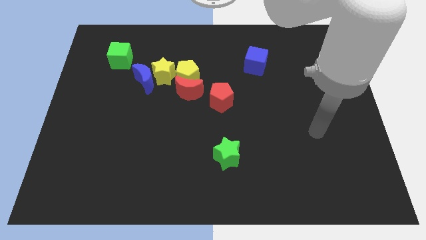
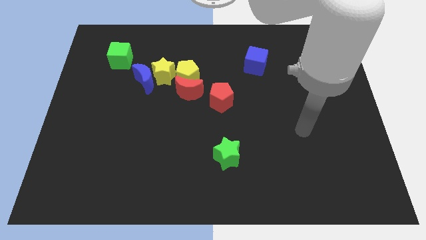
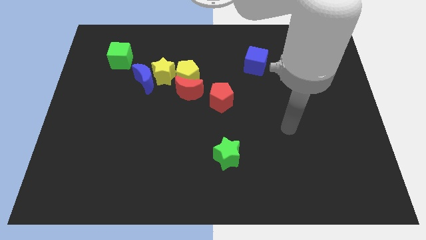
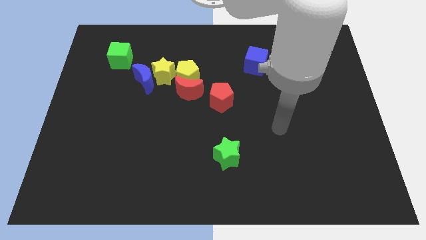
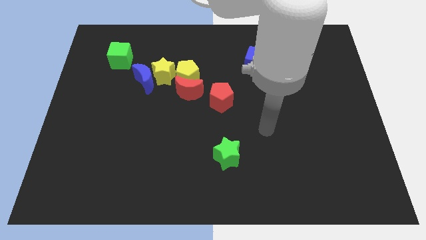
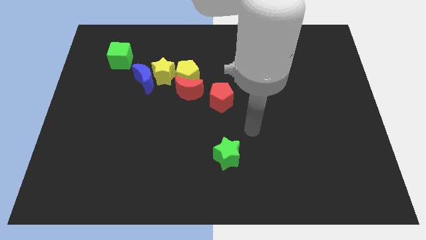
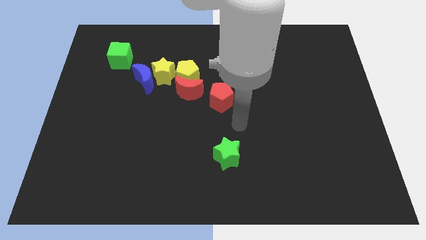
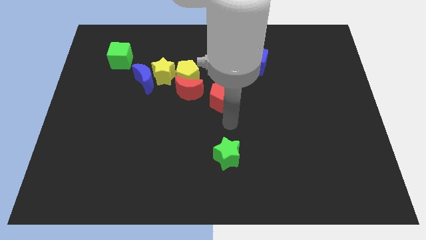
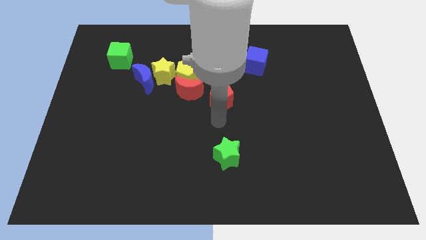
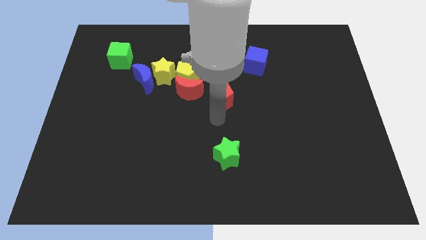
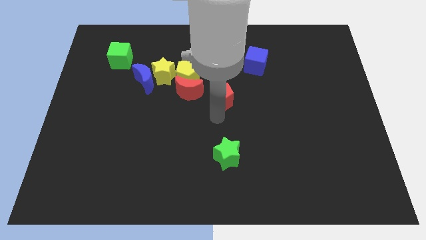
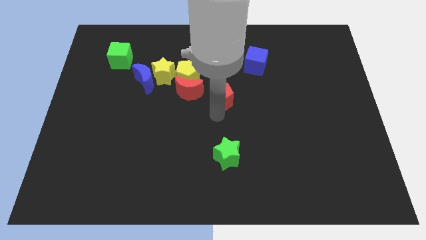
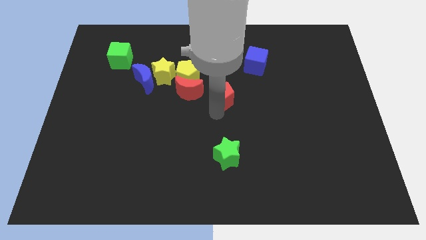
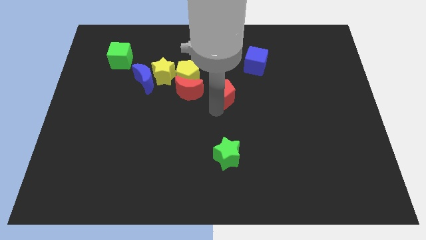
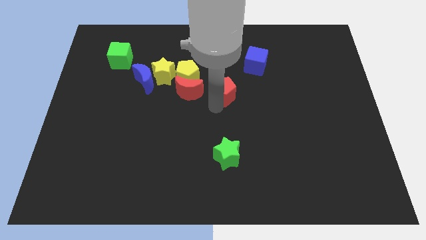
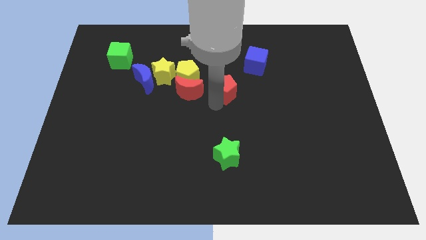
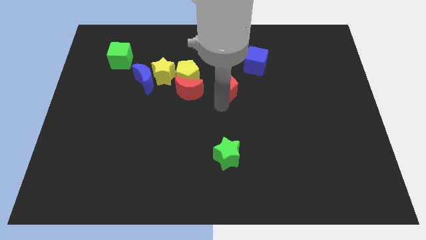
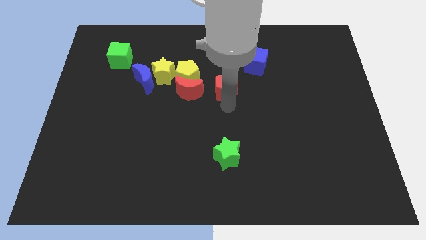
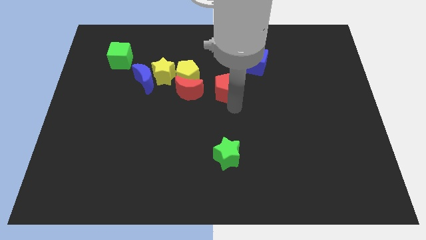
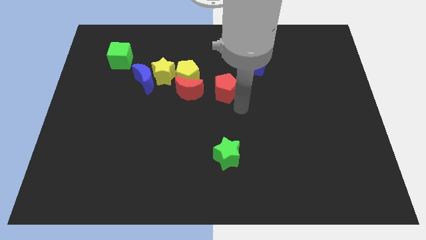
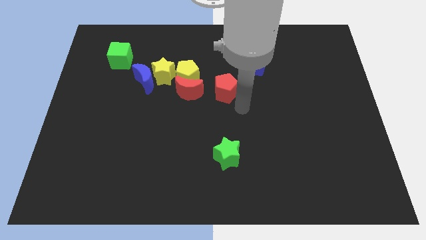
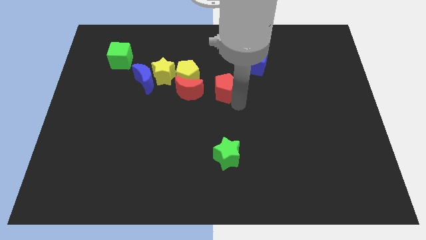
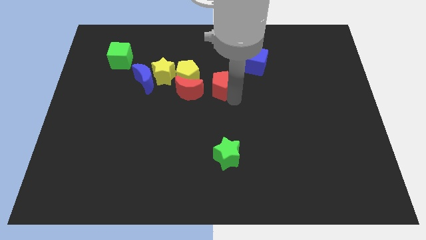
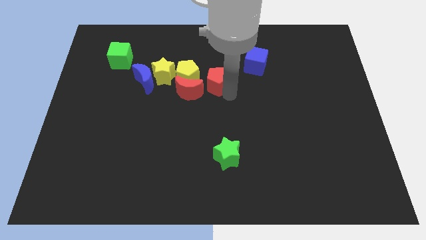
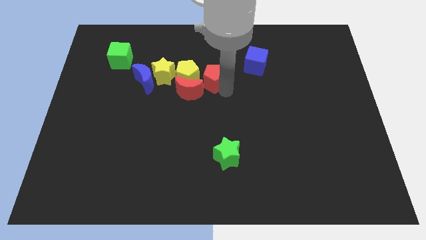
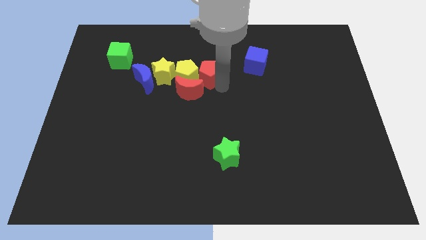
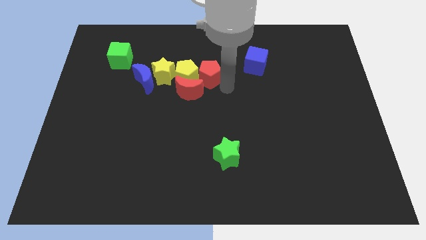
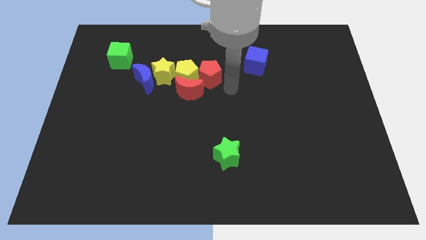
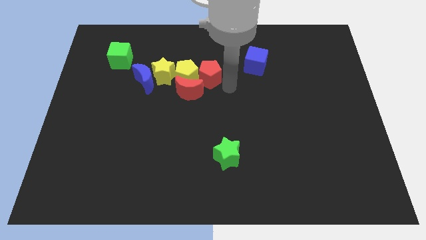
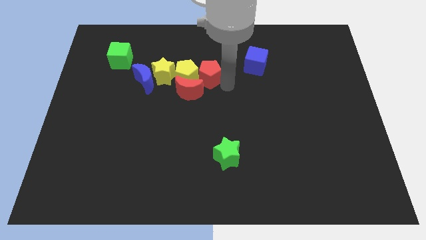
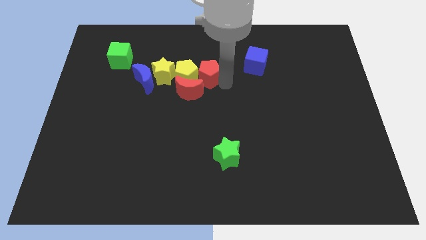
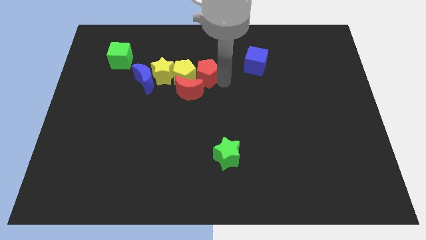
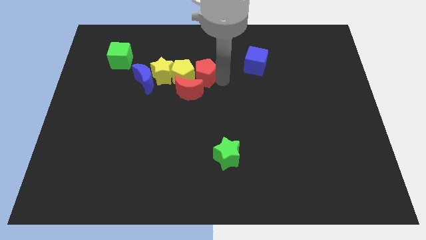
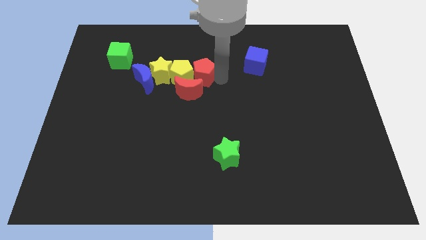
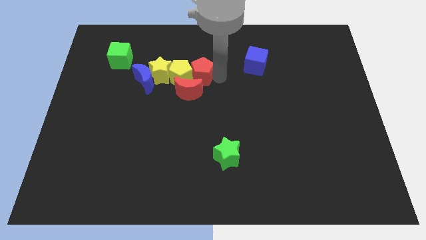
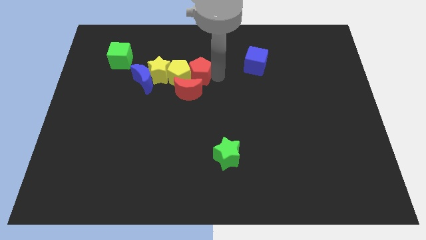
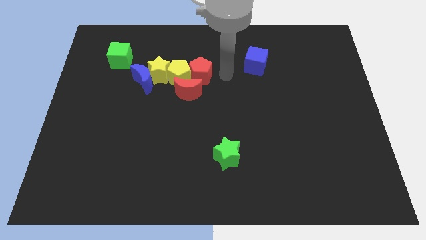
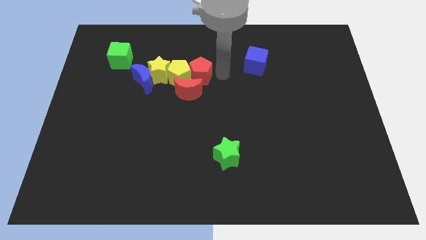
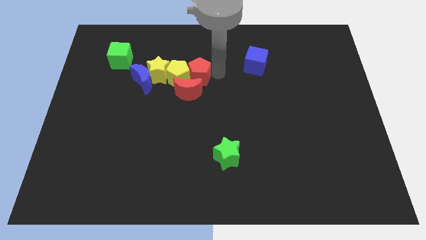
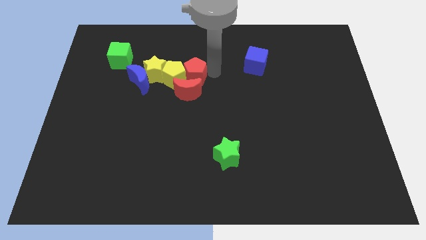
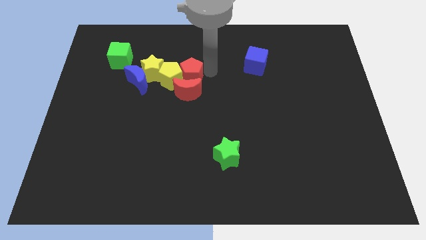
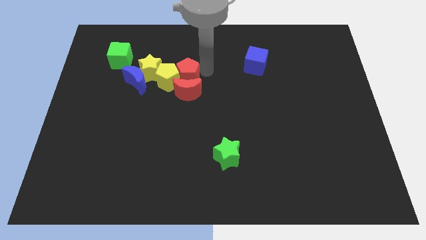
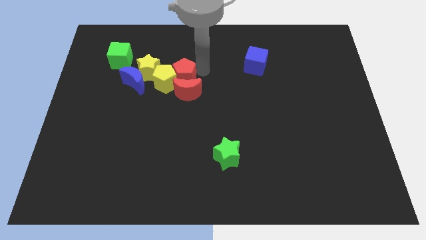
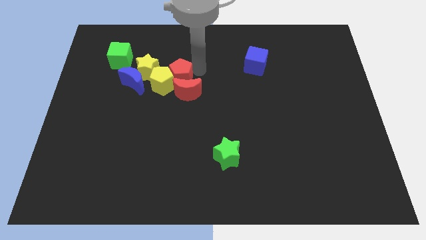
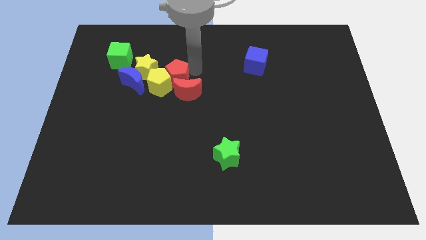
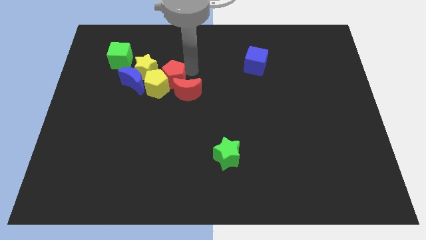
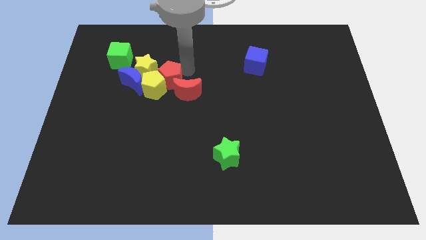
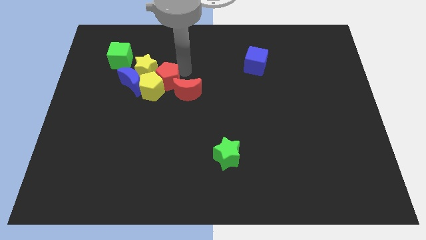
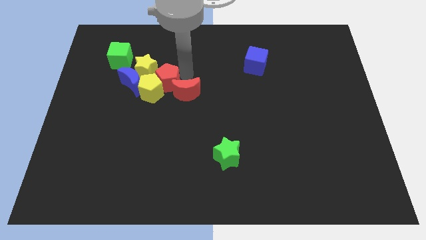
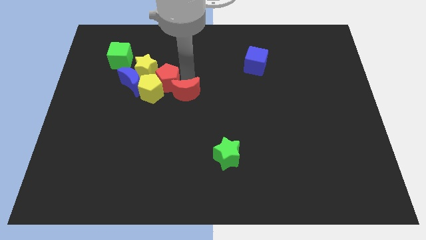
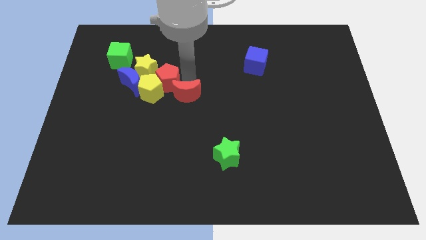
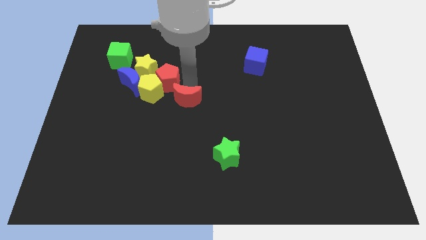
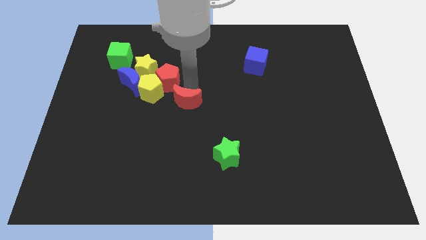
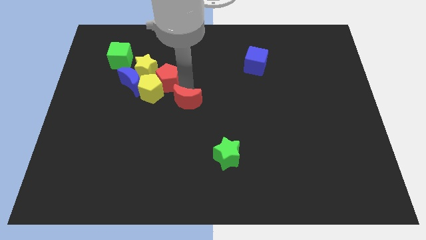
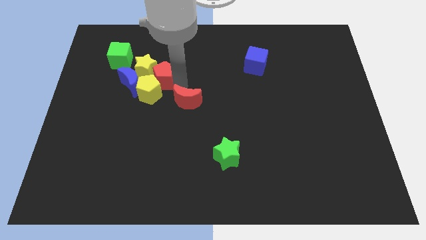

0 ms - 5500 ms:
push the red pentagon to the yellow star

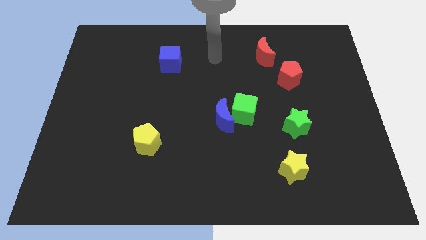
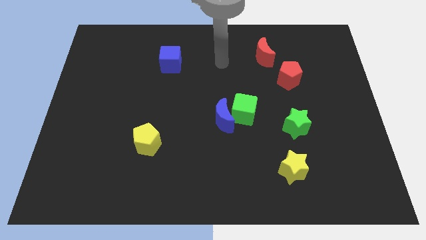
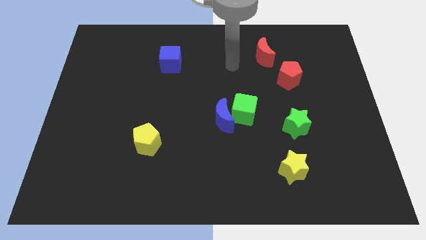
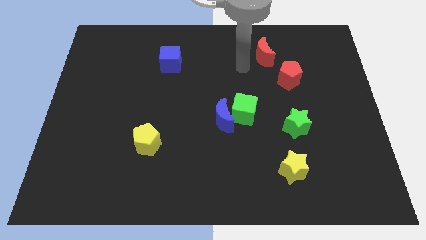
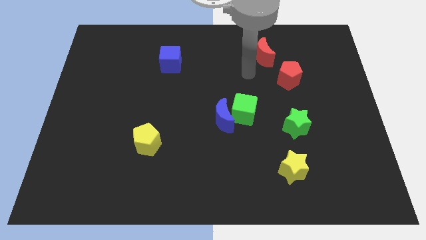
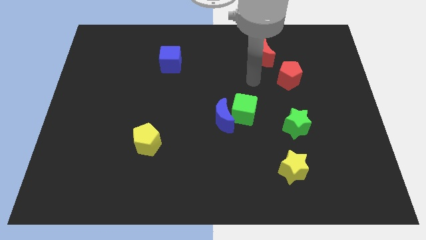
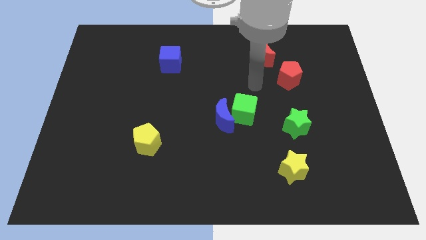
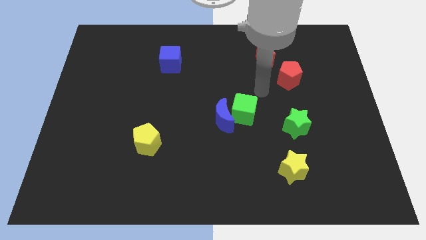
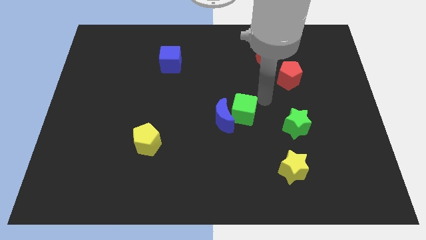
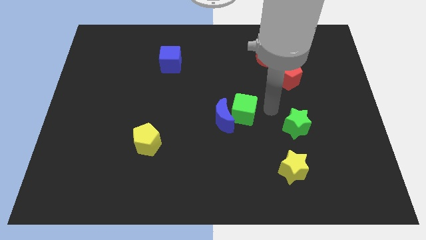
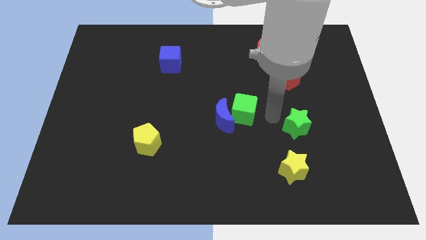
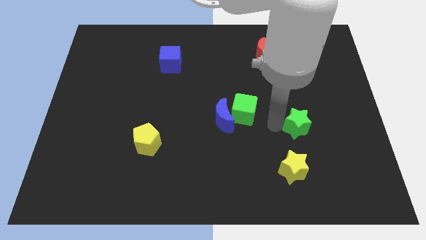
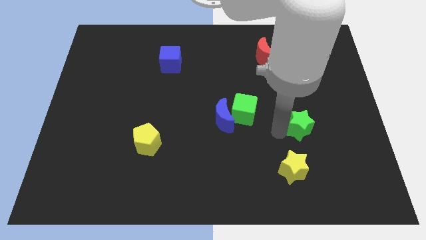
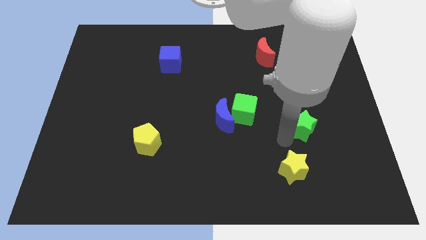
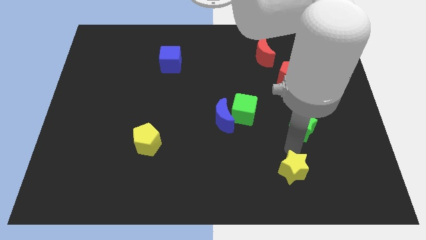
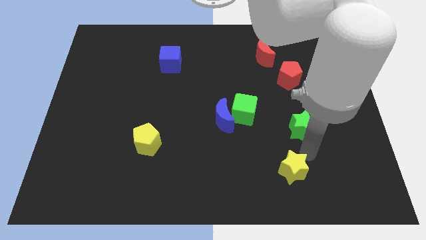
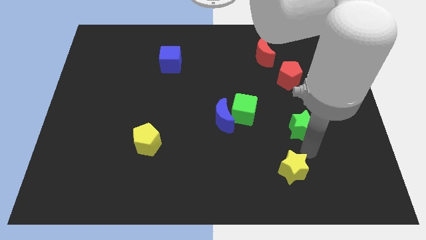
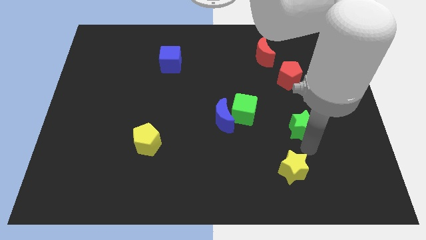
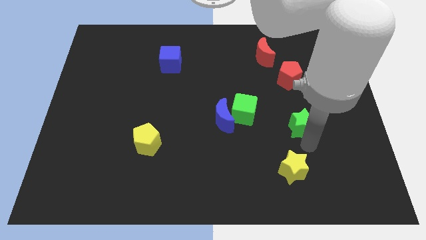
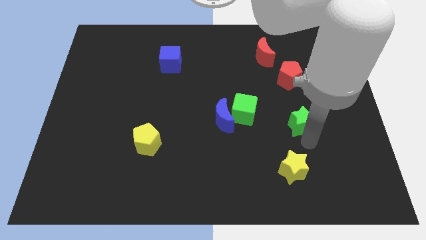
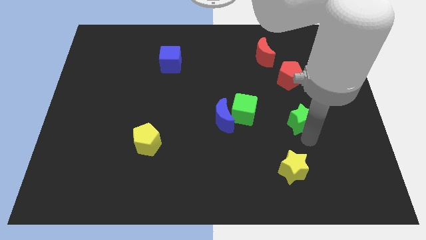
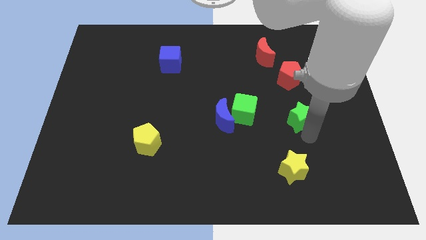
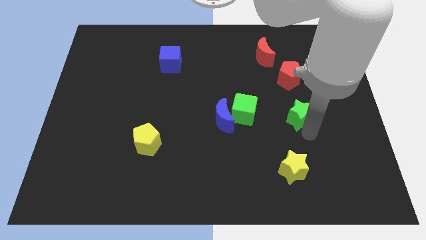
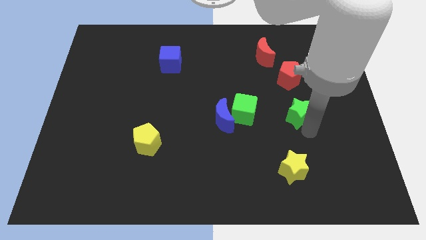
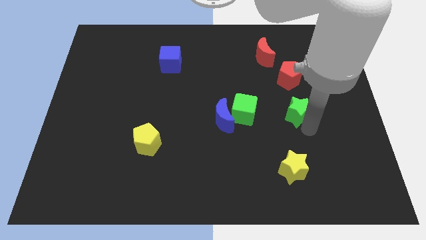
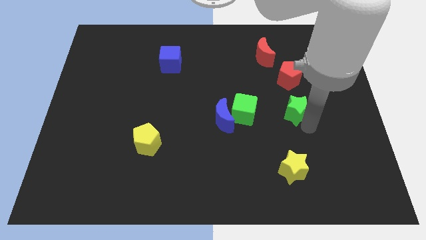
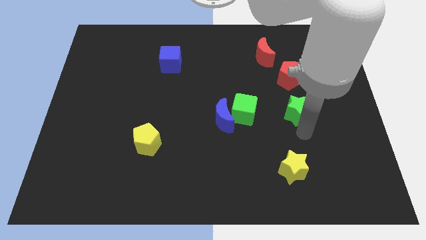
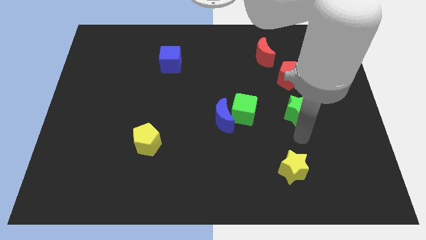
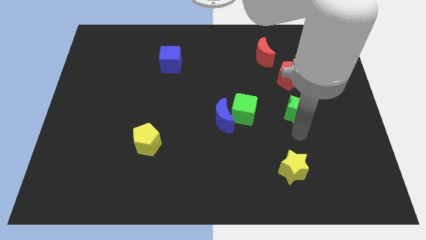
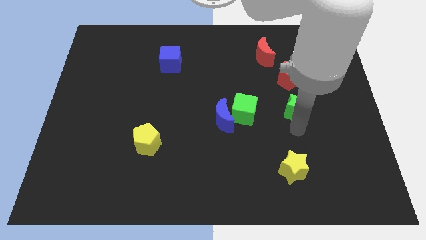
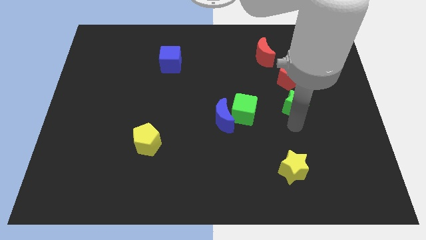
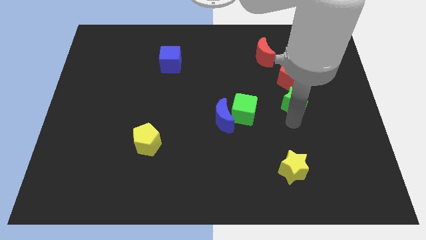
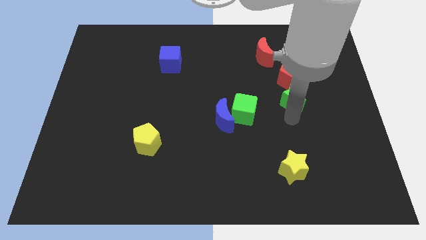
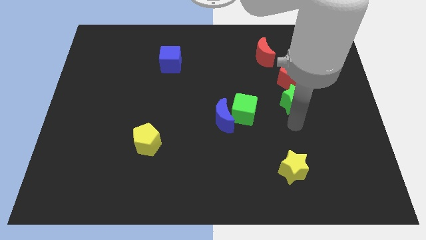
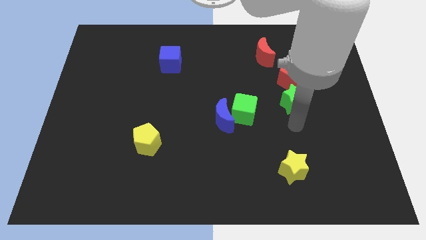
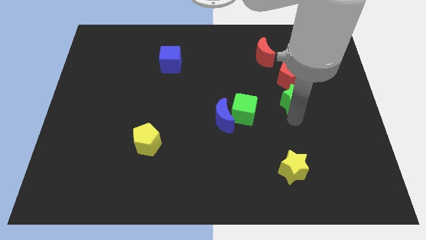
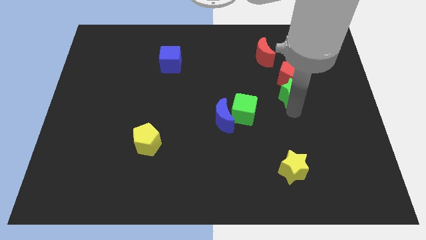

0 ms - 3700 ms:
put the green star to the red pentagon
